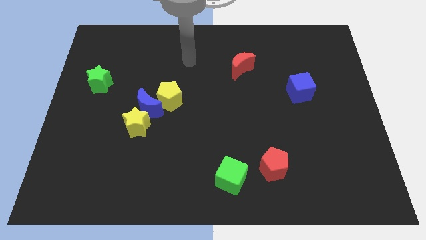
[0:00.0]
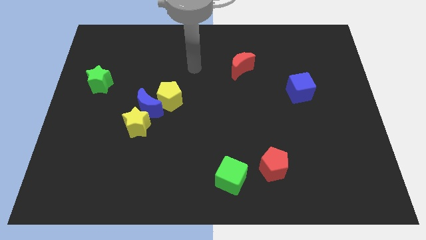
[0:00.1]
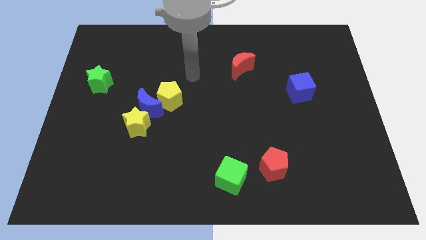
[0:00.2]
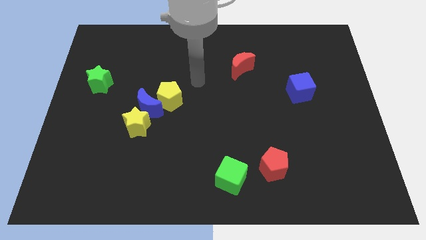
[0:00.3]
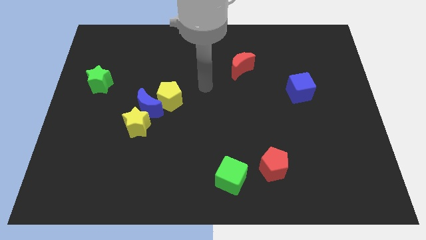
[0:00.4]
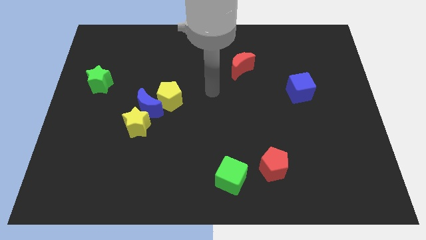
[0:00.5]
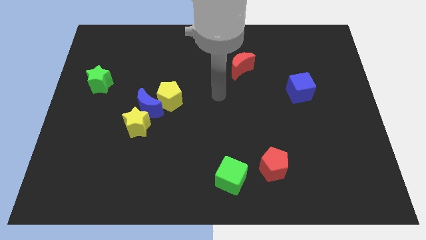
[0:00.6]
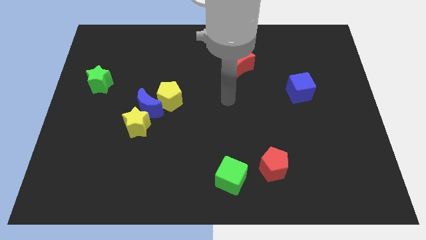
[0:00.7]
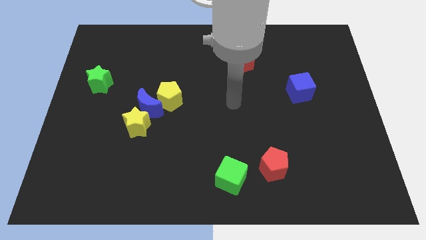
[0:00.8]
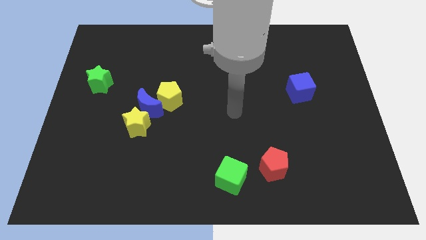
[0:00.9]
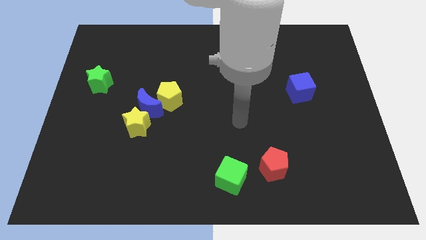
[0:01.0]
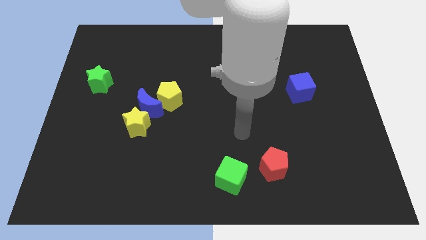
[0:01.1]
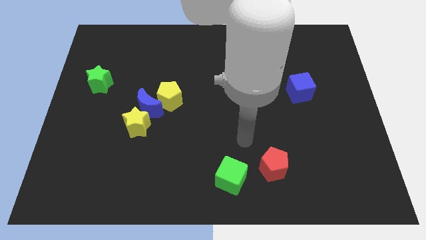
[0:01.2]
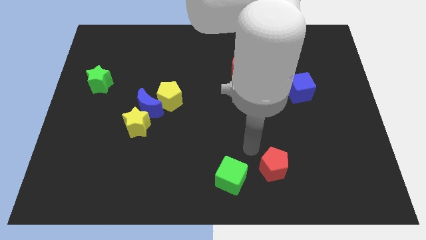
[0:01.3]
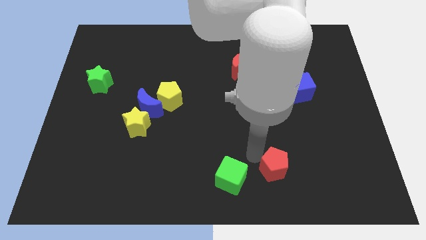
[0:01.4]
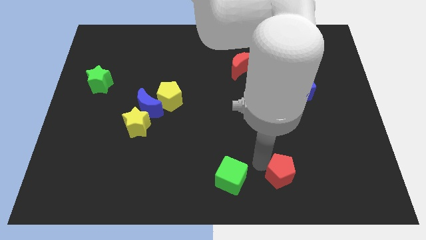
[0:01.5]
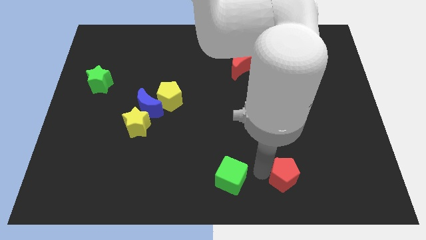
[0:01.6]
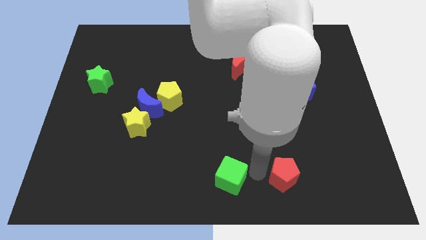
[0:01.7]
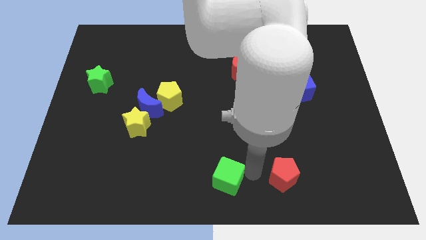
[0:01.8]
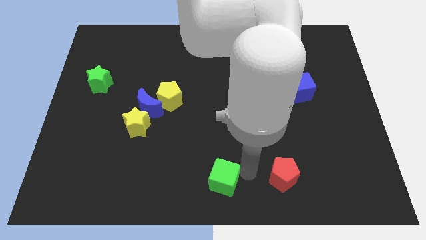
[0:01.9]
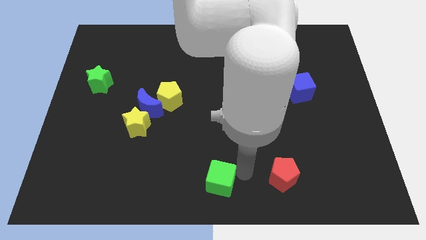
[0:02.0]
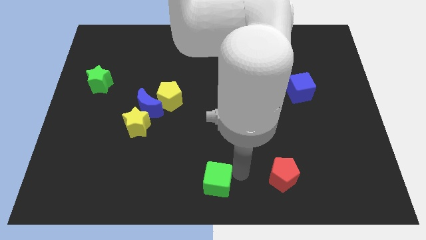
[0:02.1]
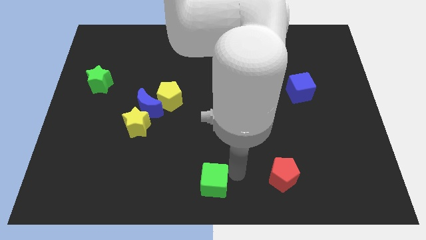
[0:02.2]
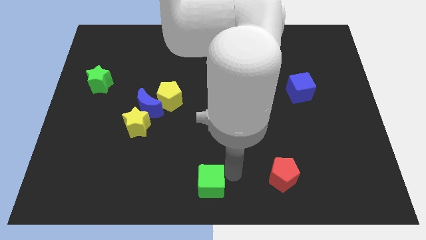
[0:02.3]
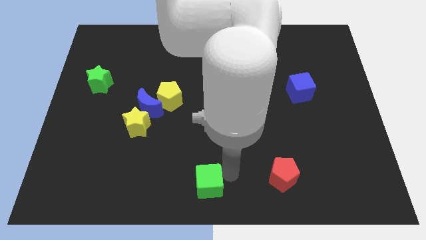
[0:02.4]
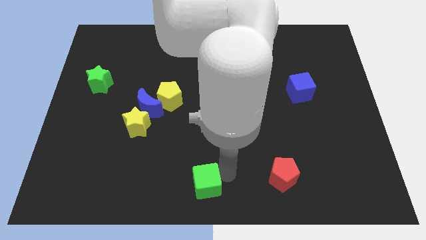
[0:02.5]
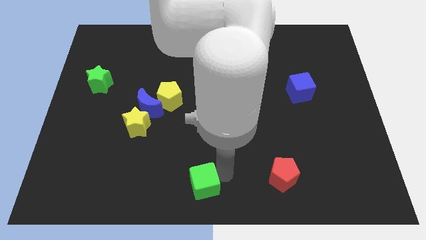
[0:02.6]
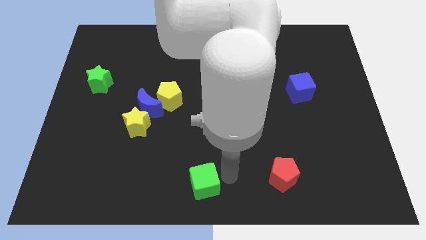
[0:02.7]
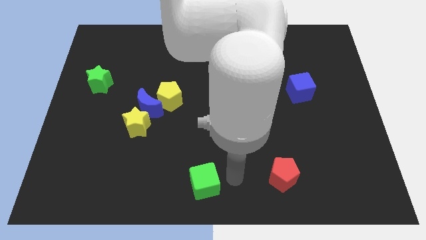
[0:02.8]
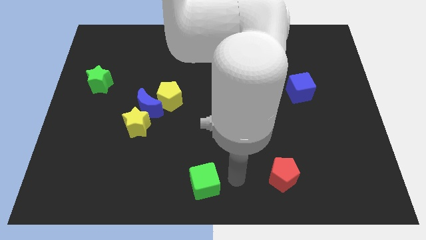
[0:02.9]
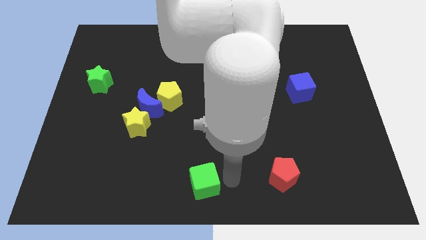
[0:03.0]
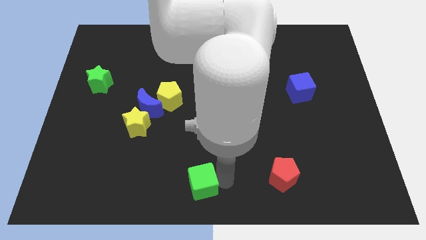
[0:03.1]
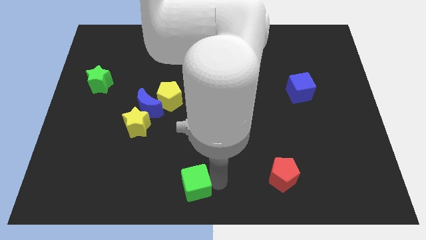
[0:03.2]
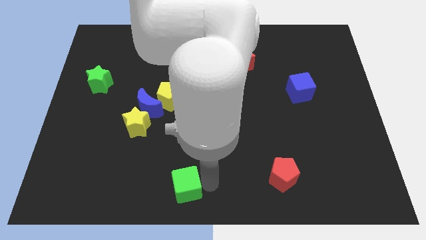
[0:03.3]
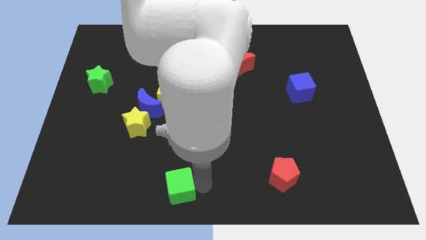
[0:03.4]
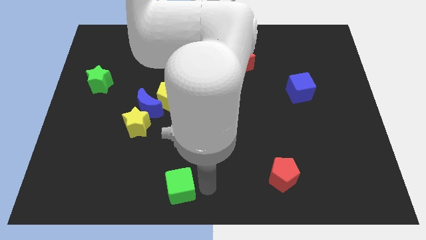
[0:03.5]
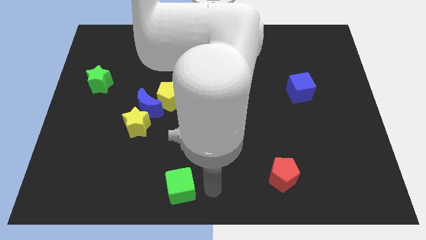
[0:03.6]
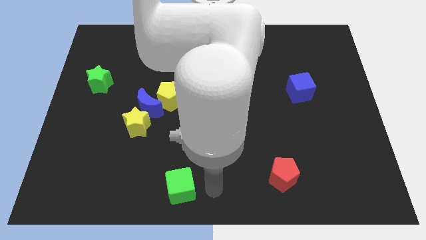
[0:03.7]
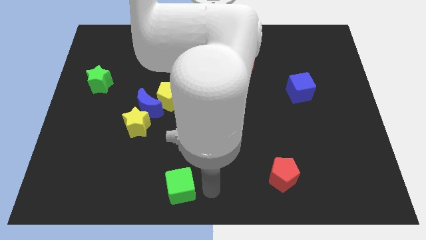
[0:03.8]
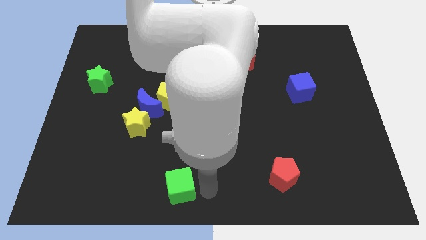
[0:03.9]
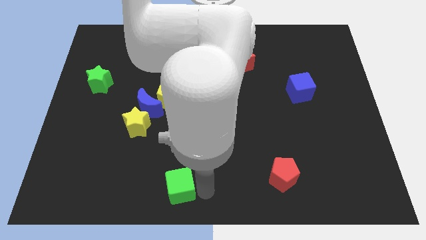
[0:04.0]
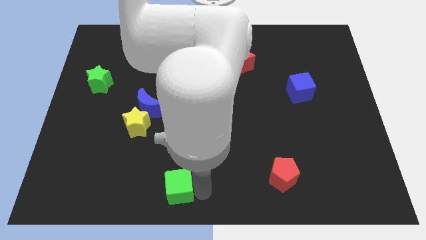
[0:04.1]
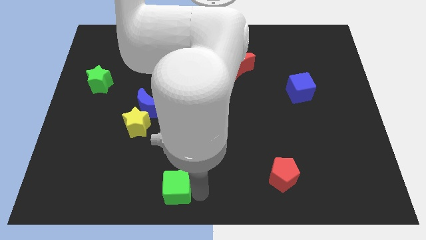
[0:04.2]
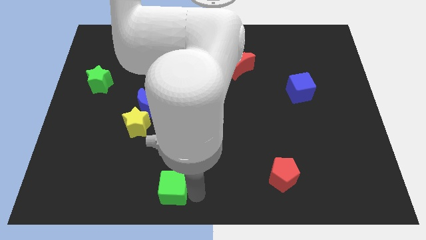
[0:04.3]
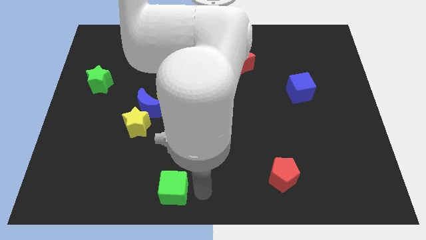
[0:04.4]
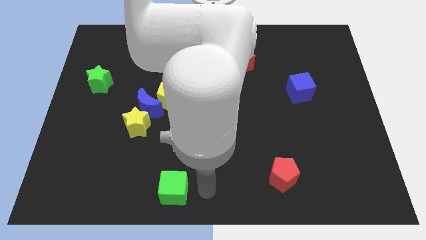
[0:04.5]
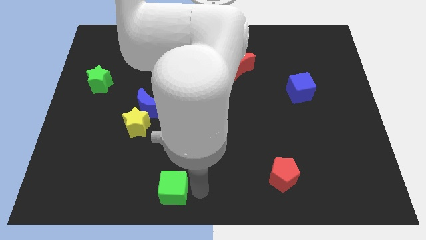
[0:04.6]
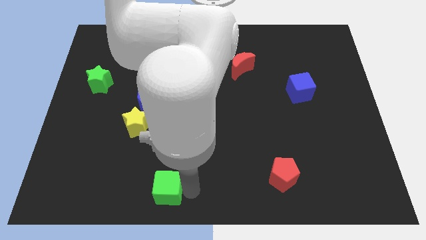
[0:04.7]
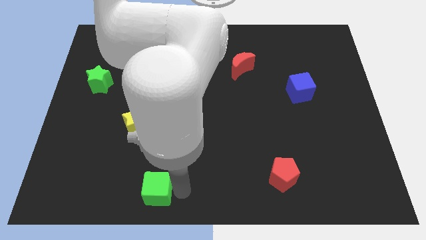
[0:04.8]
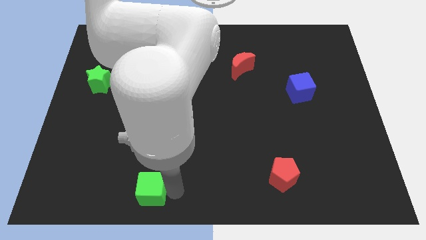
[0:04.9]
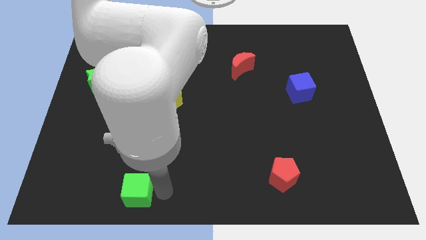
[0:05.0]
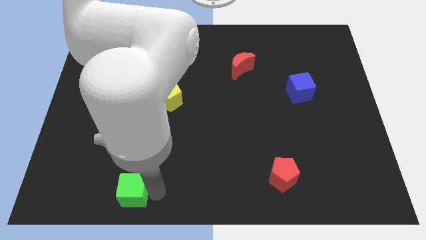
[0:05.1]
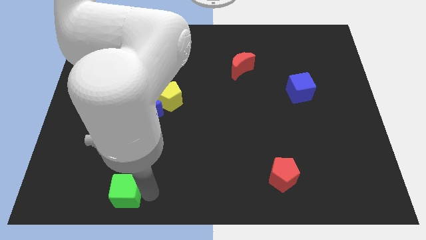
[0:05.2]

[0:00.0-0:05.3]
push the green cube left

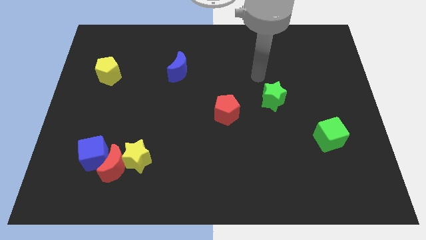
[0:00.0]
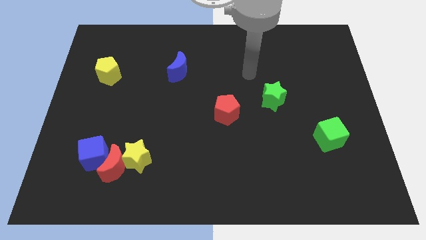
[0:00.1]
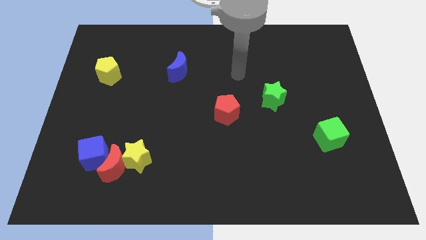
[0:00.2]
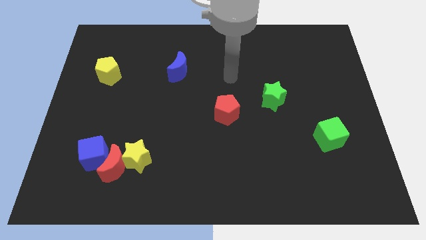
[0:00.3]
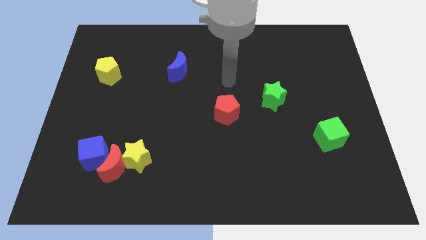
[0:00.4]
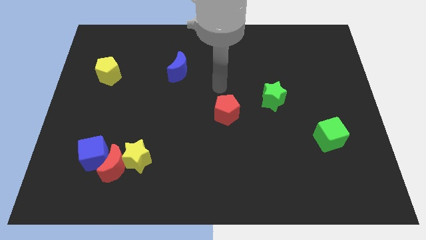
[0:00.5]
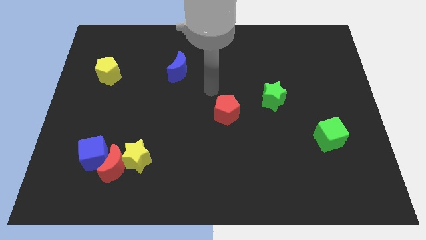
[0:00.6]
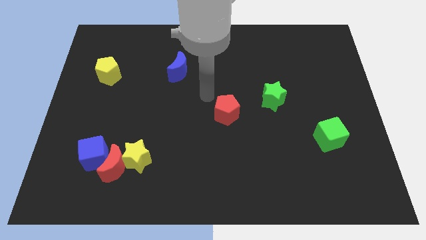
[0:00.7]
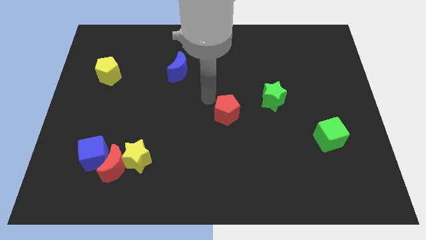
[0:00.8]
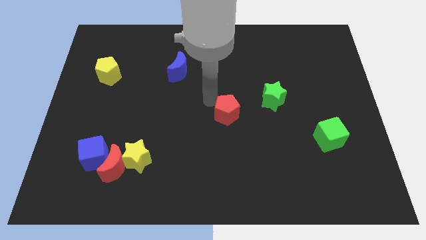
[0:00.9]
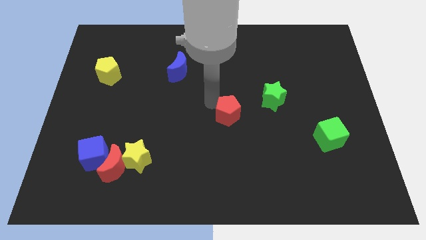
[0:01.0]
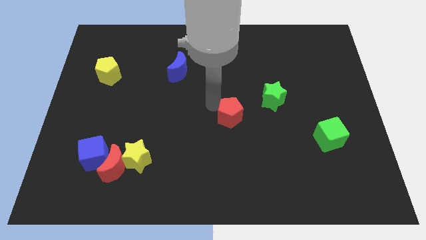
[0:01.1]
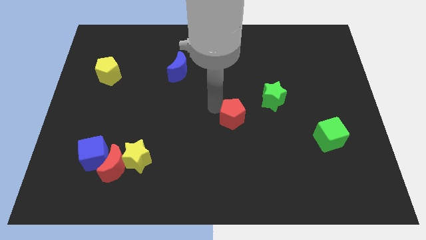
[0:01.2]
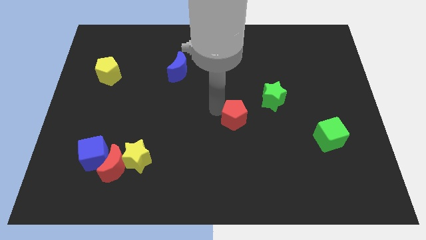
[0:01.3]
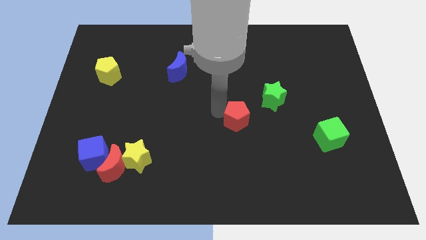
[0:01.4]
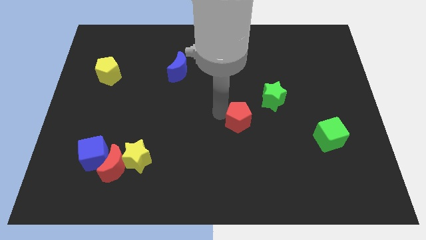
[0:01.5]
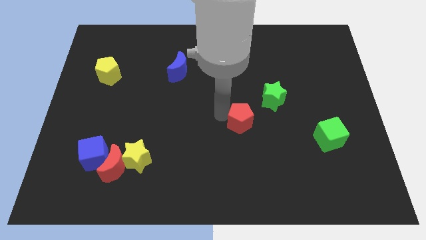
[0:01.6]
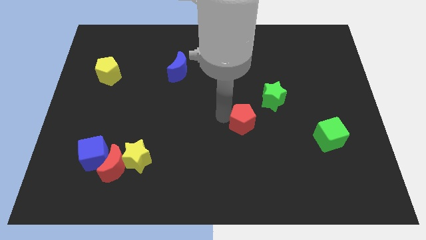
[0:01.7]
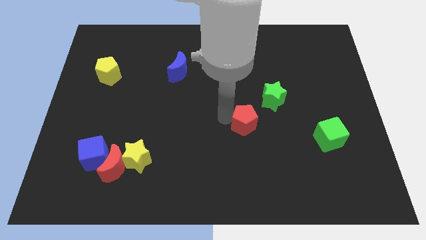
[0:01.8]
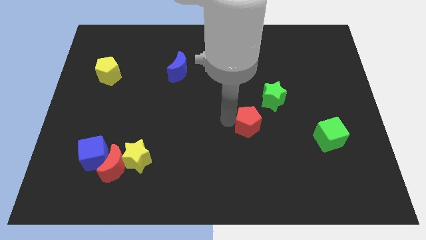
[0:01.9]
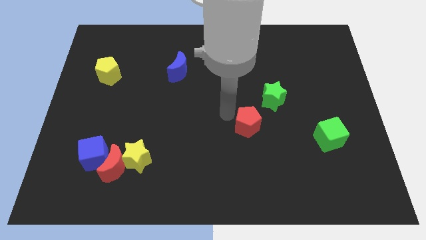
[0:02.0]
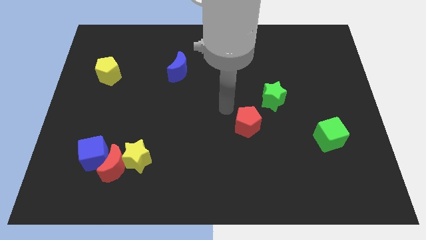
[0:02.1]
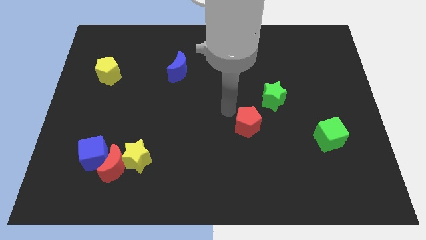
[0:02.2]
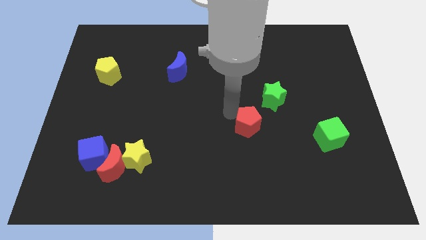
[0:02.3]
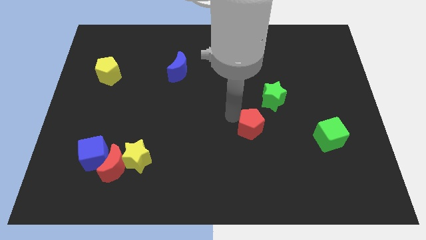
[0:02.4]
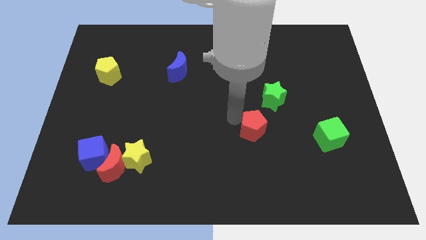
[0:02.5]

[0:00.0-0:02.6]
slightly slide the red pentagon down and right diagonally
